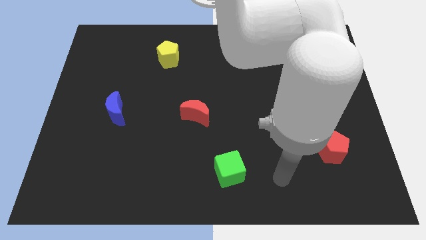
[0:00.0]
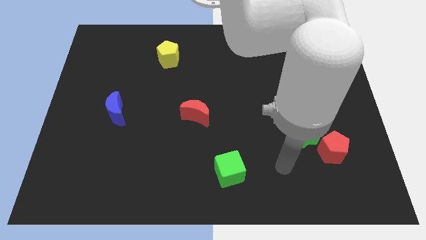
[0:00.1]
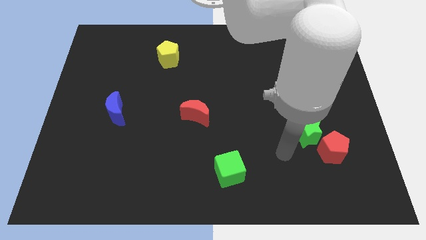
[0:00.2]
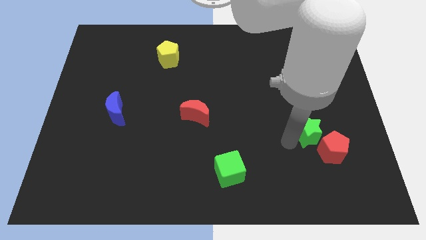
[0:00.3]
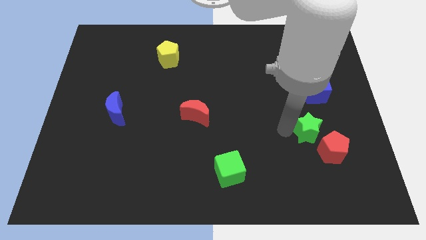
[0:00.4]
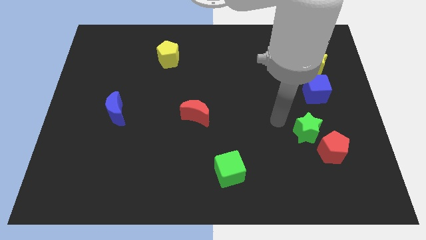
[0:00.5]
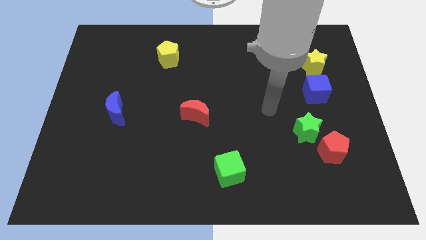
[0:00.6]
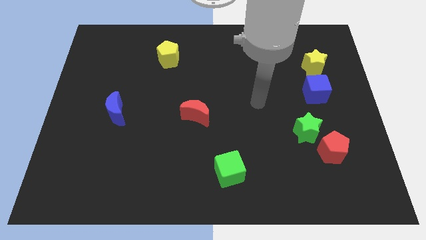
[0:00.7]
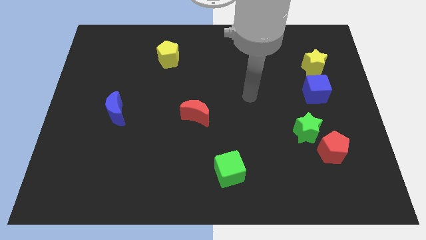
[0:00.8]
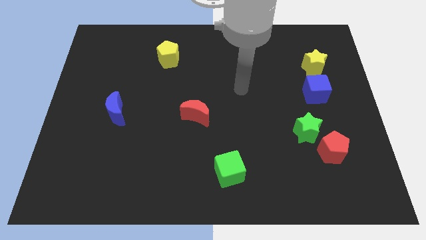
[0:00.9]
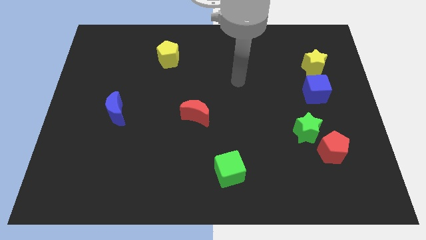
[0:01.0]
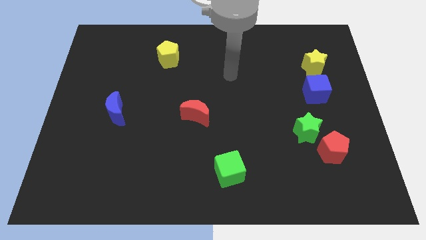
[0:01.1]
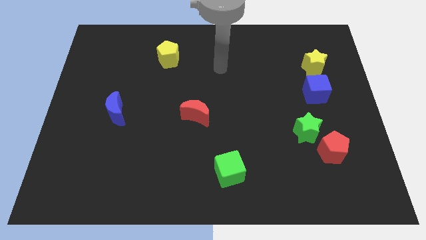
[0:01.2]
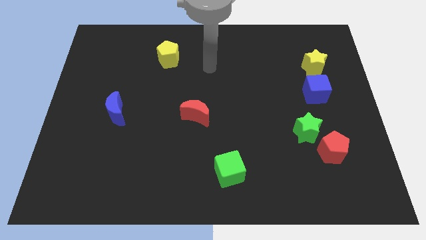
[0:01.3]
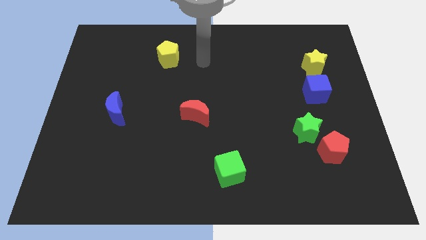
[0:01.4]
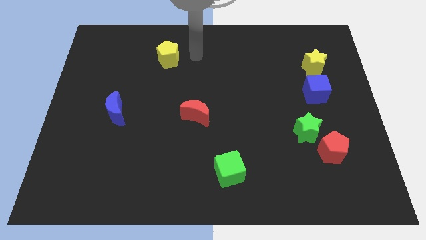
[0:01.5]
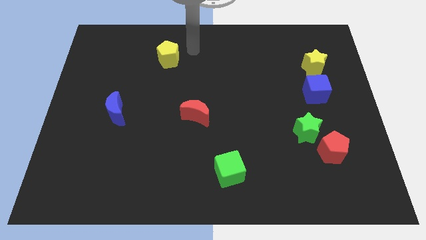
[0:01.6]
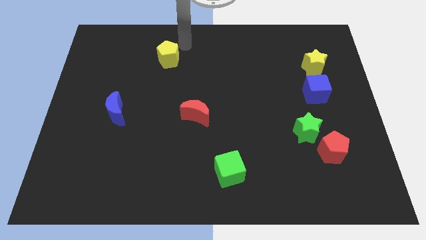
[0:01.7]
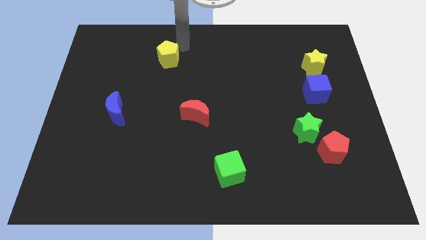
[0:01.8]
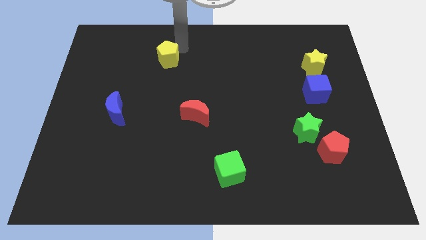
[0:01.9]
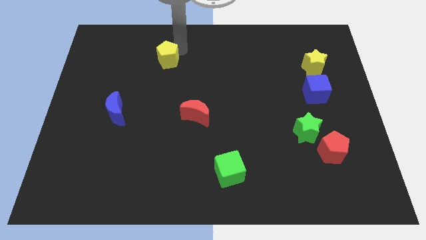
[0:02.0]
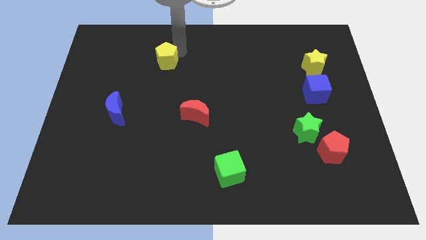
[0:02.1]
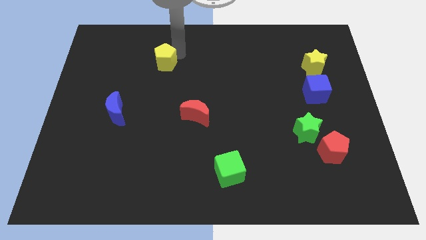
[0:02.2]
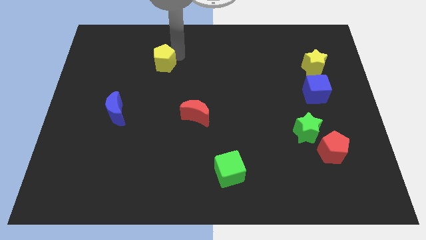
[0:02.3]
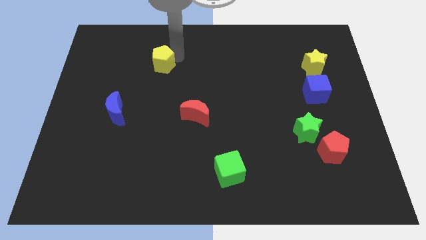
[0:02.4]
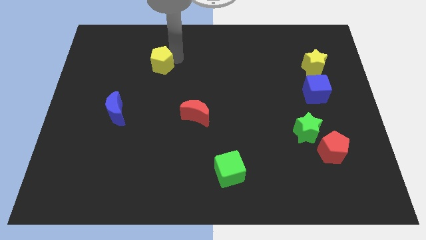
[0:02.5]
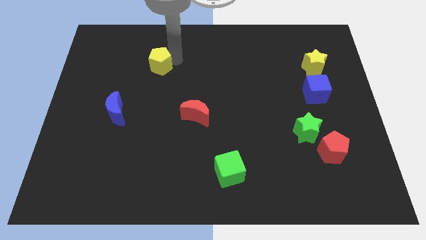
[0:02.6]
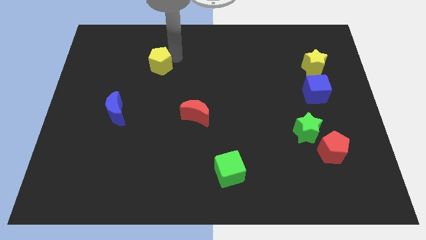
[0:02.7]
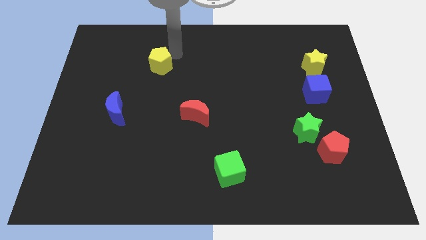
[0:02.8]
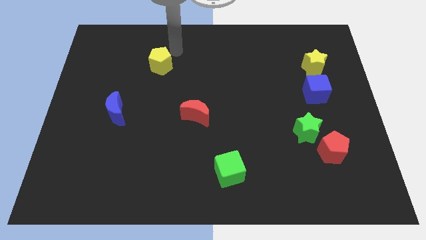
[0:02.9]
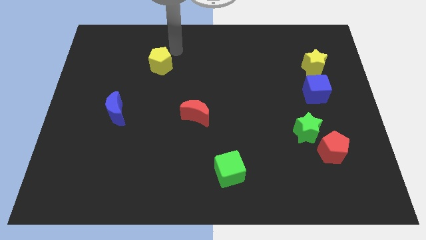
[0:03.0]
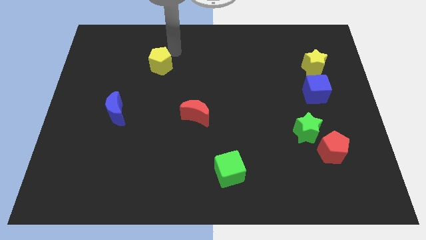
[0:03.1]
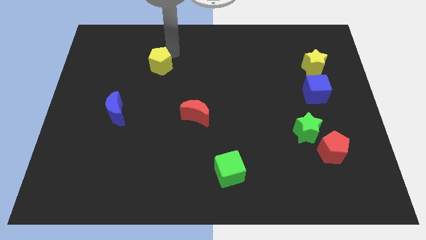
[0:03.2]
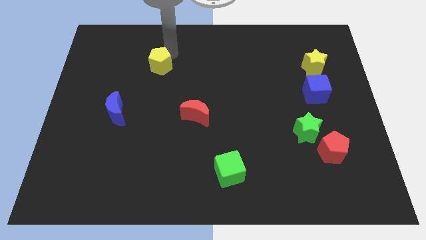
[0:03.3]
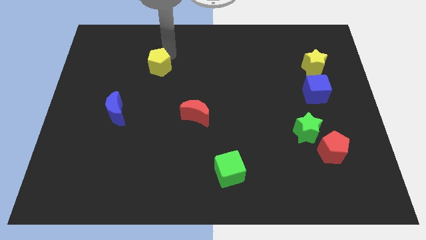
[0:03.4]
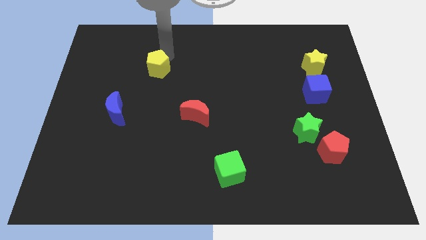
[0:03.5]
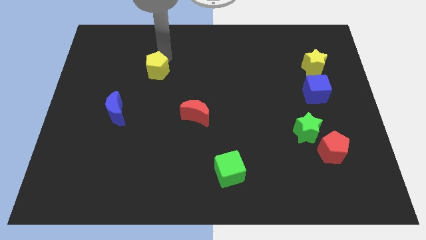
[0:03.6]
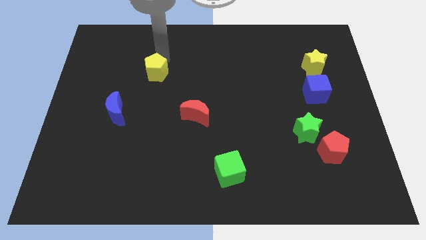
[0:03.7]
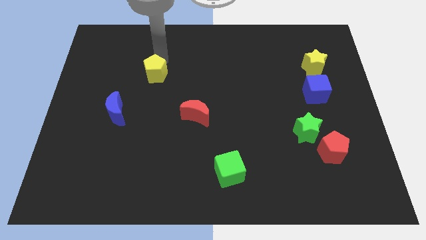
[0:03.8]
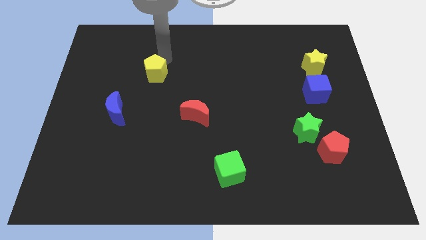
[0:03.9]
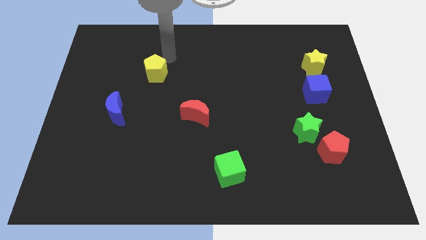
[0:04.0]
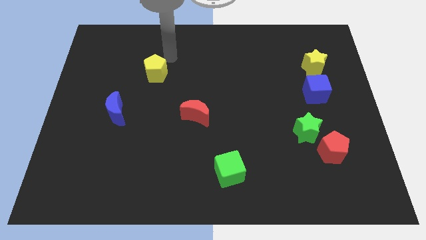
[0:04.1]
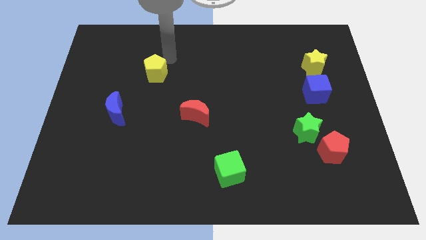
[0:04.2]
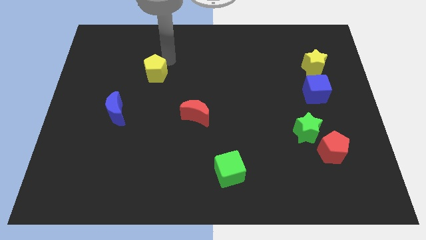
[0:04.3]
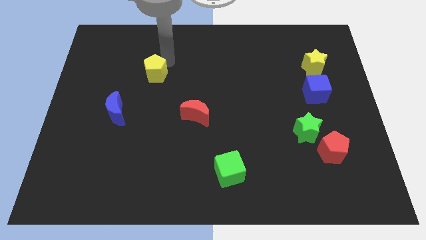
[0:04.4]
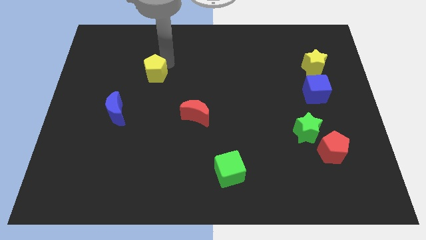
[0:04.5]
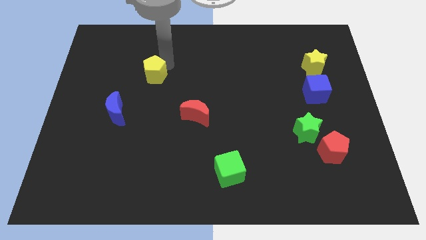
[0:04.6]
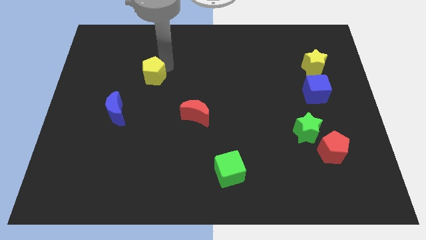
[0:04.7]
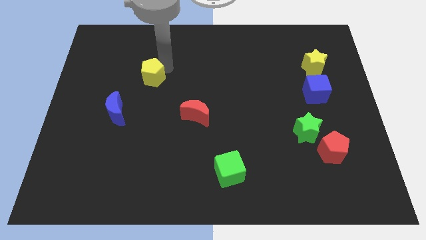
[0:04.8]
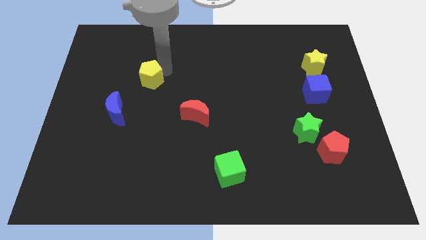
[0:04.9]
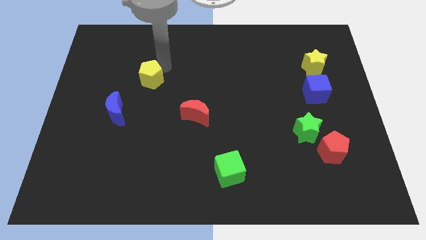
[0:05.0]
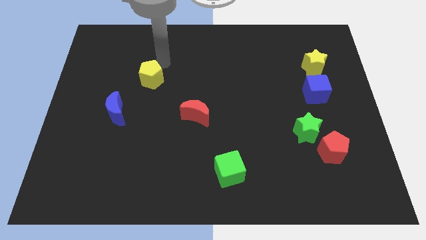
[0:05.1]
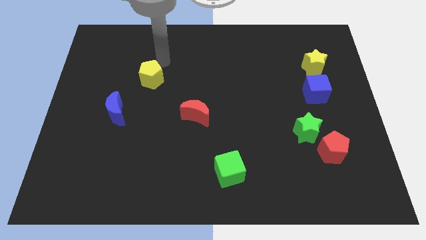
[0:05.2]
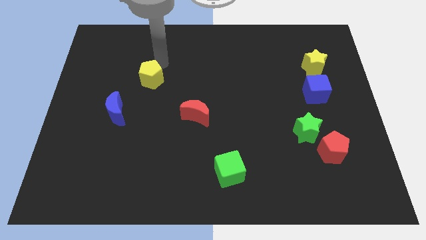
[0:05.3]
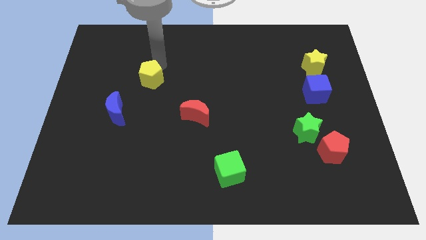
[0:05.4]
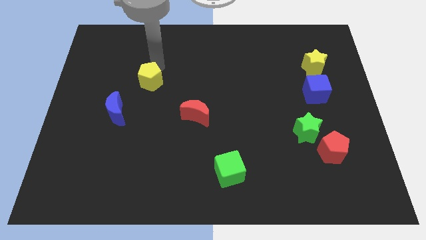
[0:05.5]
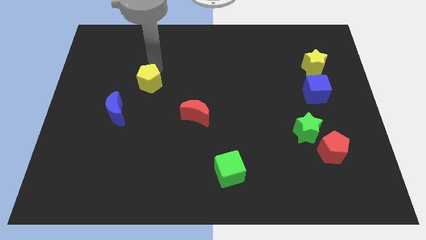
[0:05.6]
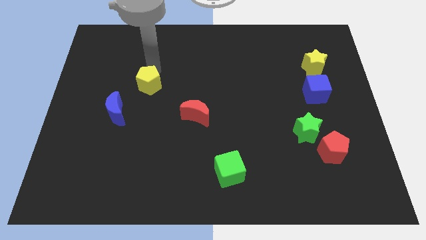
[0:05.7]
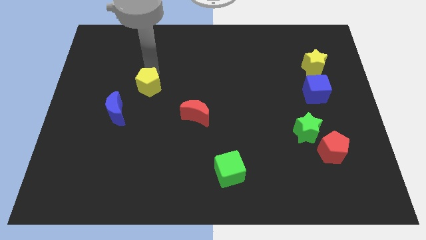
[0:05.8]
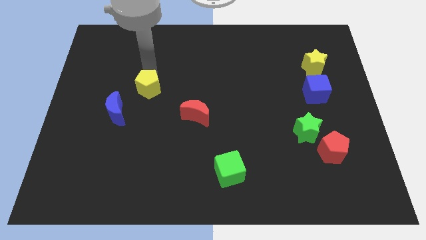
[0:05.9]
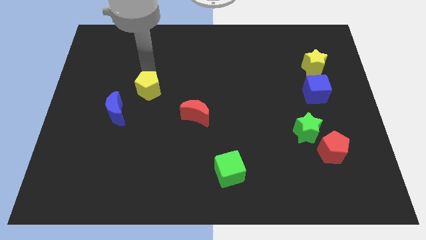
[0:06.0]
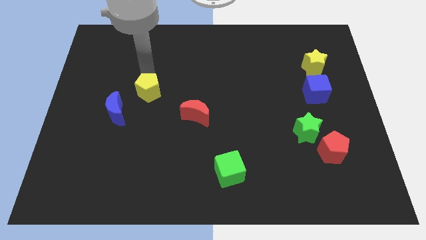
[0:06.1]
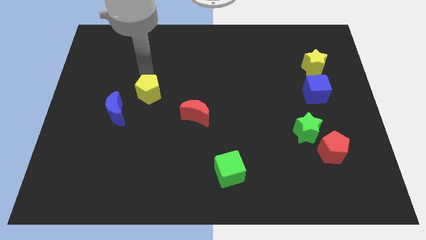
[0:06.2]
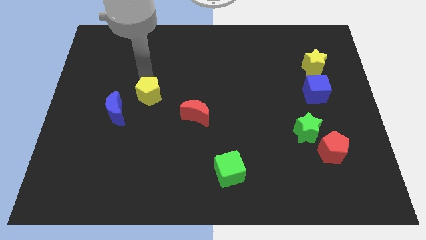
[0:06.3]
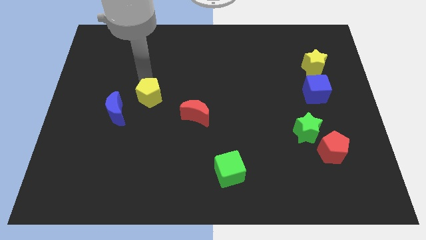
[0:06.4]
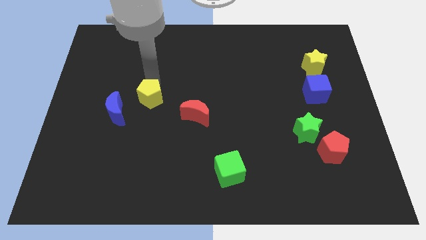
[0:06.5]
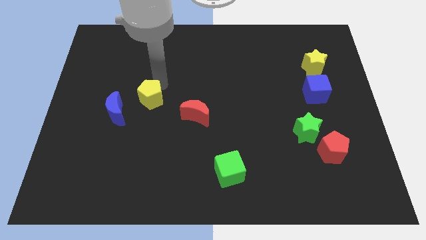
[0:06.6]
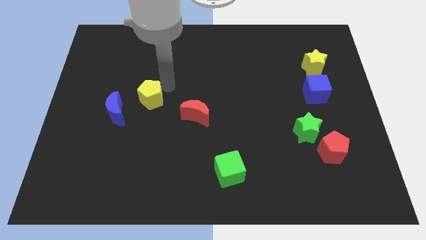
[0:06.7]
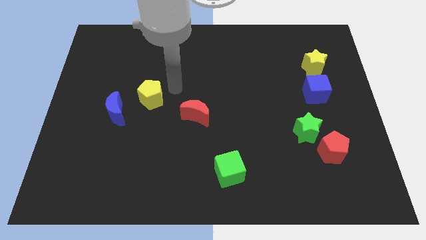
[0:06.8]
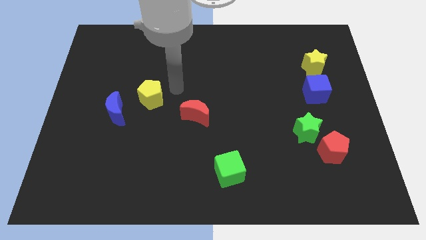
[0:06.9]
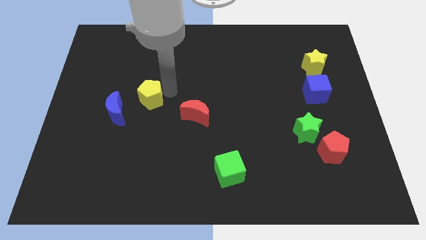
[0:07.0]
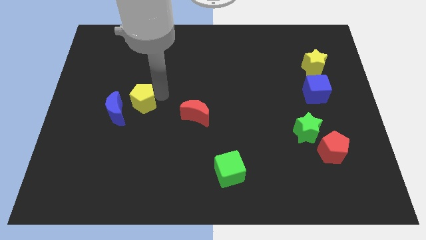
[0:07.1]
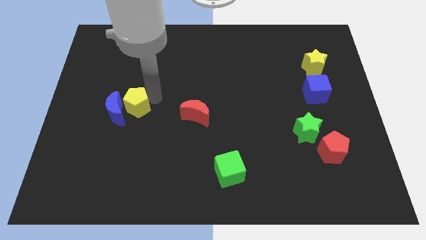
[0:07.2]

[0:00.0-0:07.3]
move the yellow pentagon to the blue moon

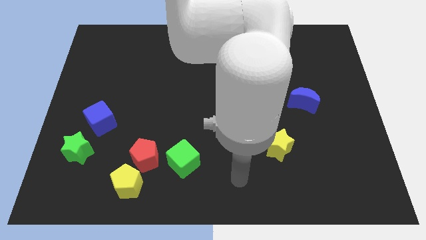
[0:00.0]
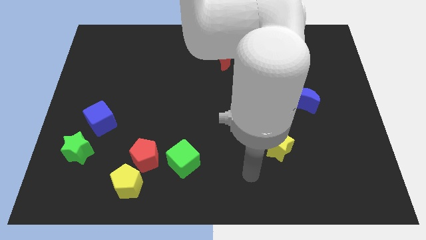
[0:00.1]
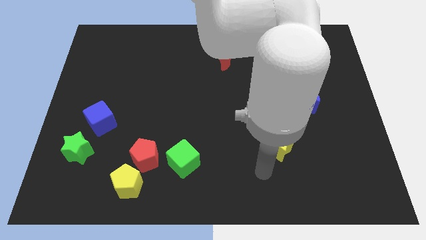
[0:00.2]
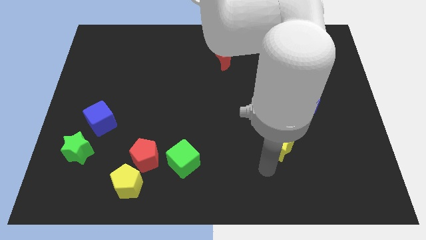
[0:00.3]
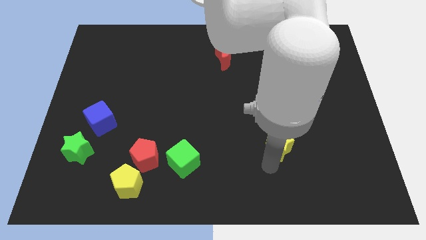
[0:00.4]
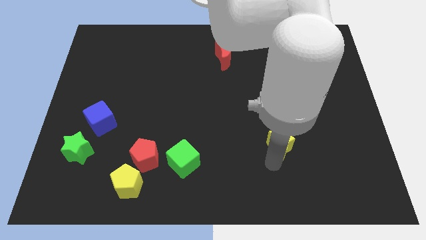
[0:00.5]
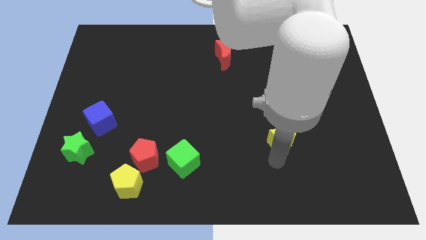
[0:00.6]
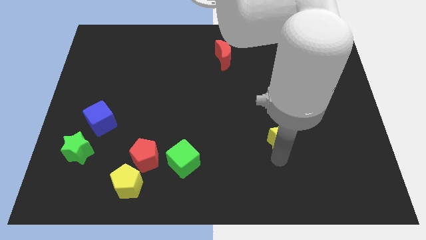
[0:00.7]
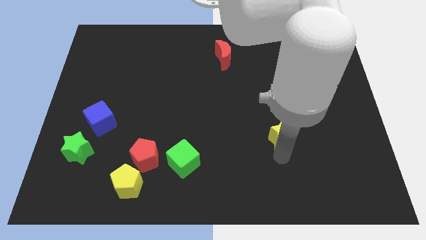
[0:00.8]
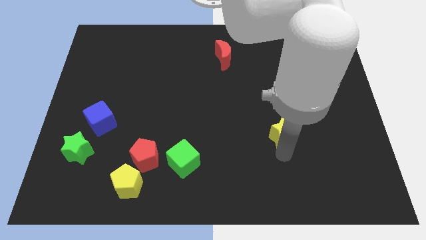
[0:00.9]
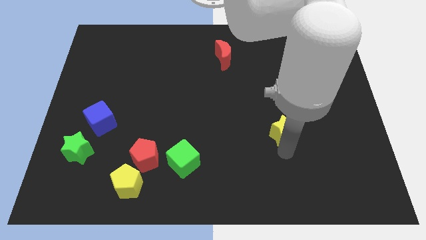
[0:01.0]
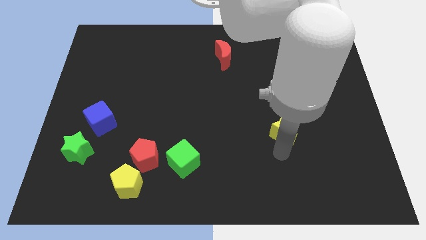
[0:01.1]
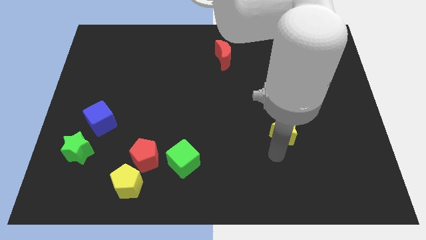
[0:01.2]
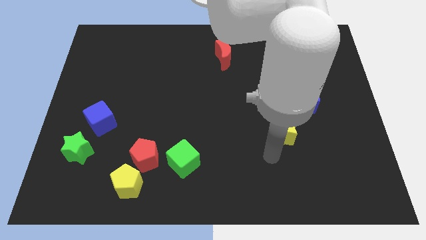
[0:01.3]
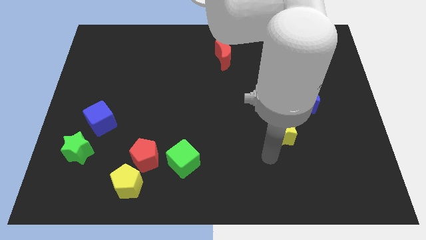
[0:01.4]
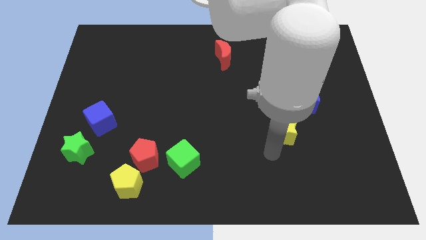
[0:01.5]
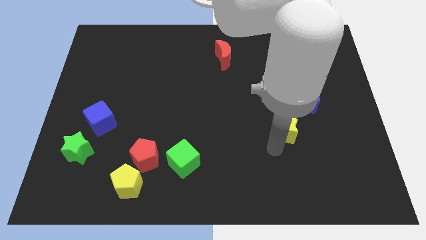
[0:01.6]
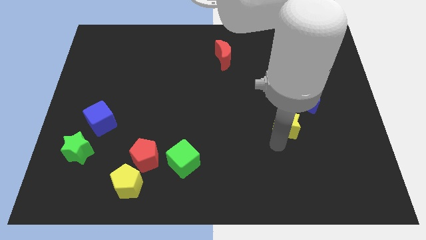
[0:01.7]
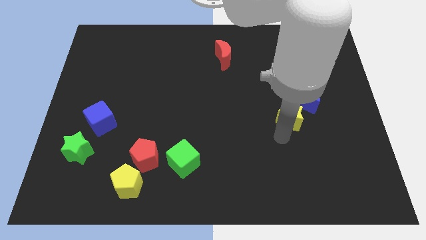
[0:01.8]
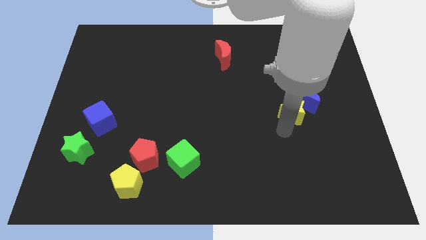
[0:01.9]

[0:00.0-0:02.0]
slide the yellow star close to the blue moon
